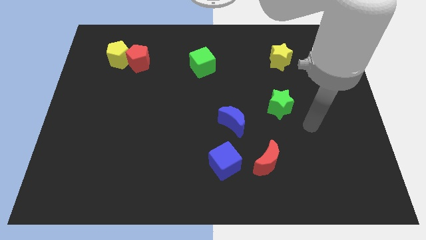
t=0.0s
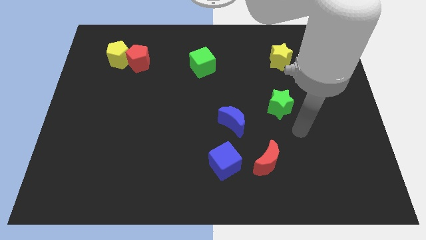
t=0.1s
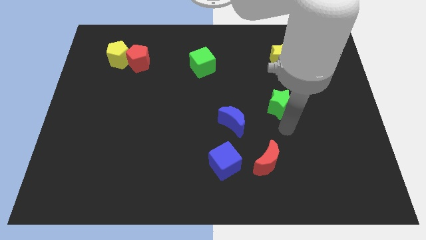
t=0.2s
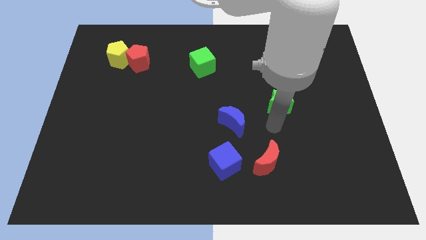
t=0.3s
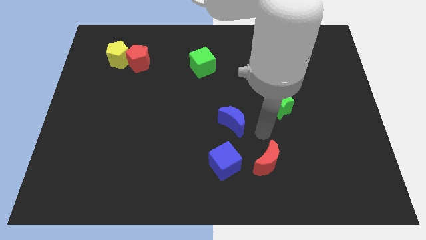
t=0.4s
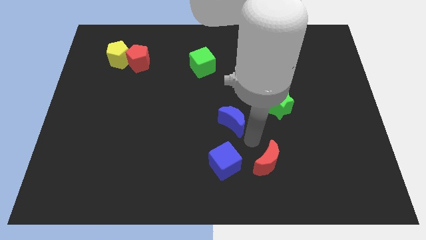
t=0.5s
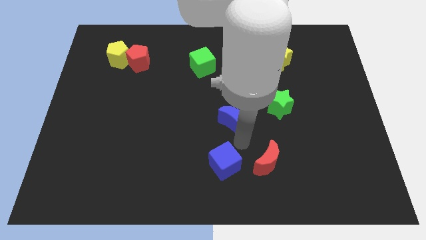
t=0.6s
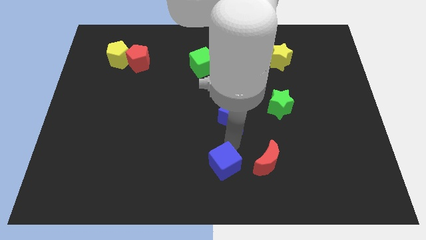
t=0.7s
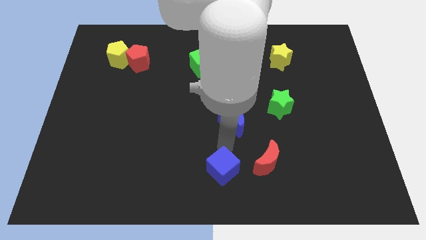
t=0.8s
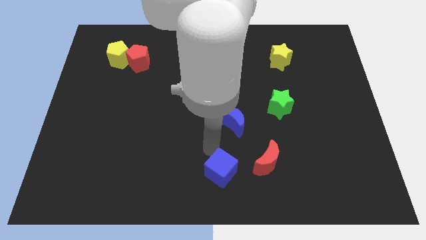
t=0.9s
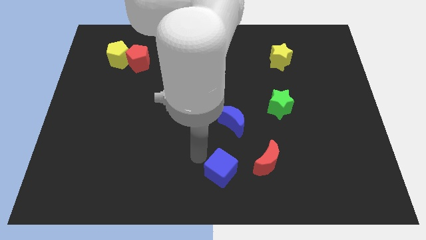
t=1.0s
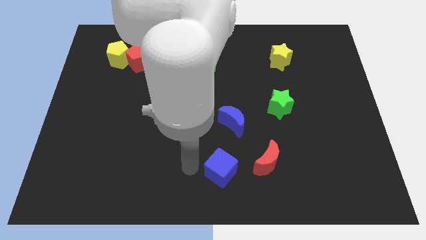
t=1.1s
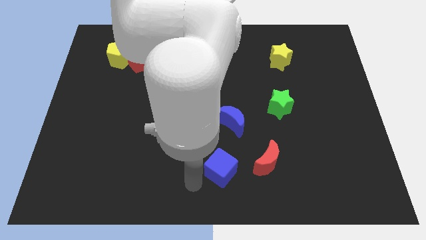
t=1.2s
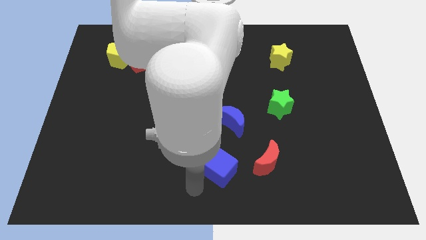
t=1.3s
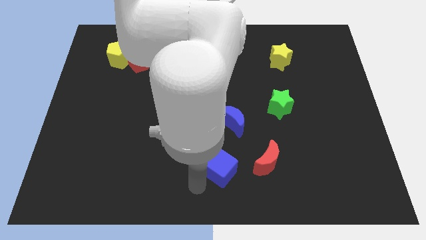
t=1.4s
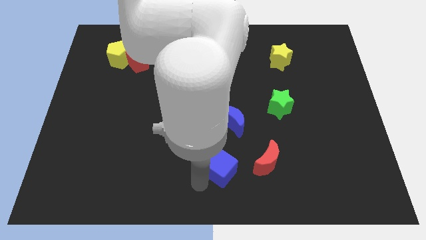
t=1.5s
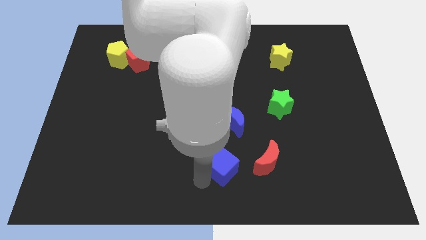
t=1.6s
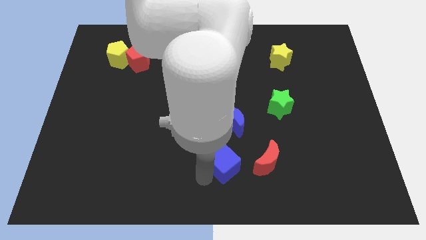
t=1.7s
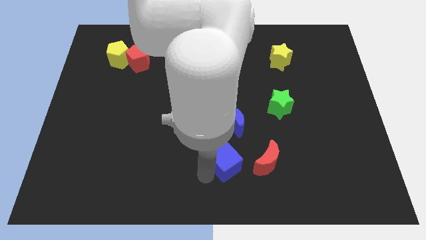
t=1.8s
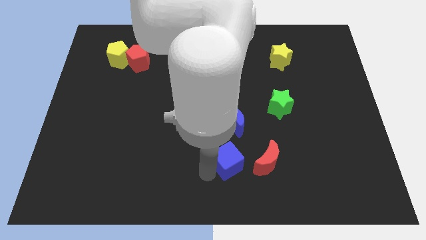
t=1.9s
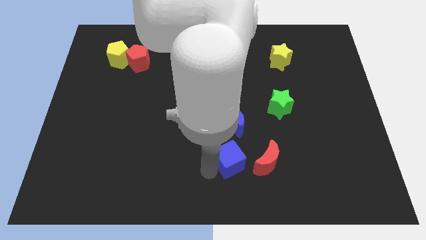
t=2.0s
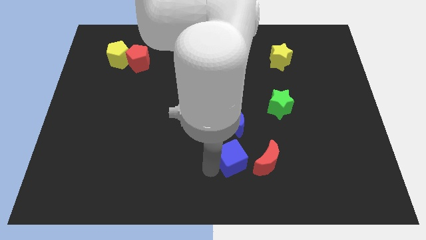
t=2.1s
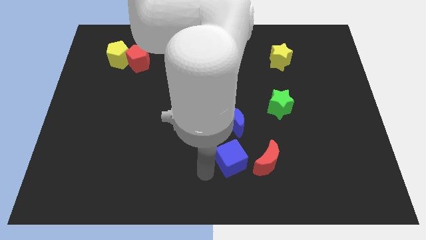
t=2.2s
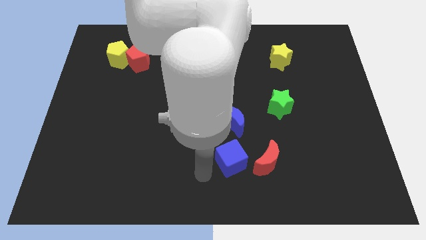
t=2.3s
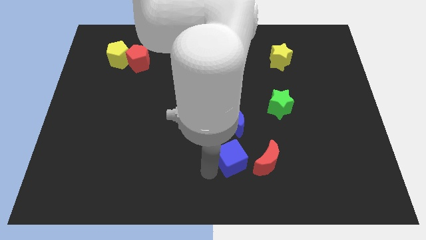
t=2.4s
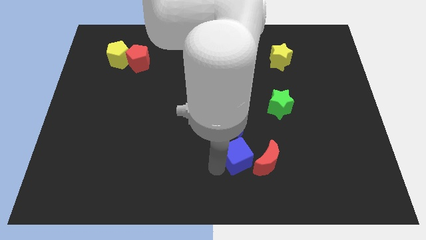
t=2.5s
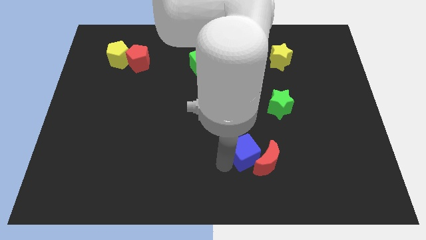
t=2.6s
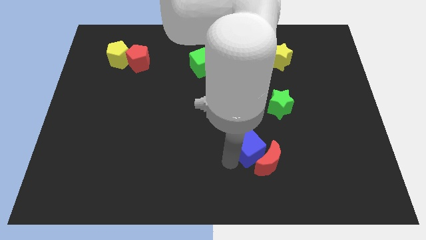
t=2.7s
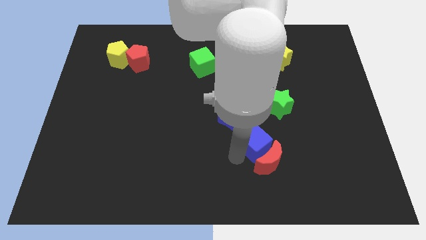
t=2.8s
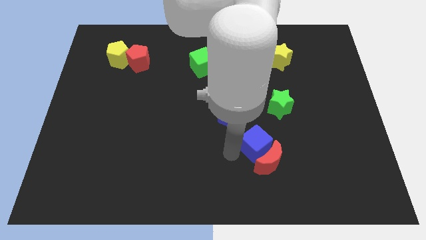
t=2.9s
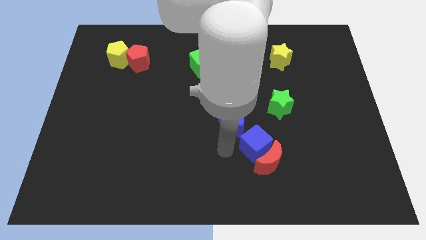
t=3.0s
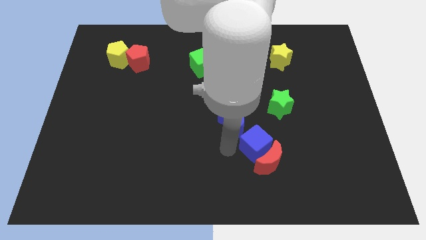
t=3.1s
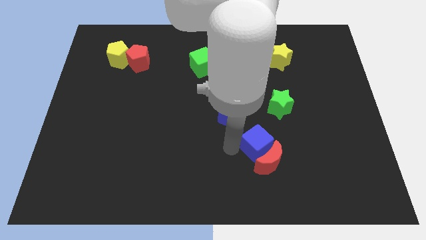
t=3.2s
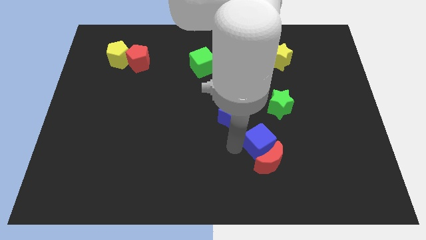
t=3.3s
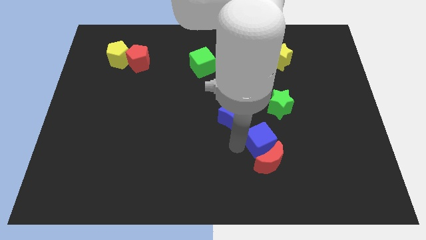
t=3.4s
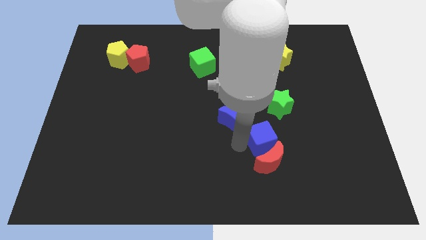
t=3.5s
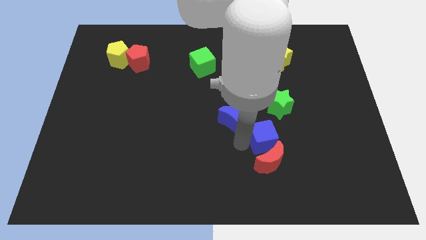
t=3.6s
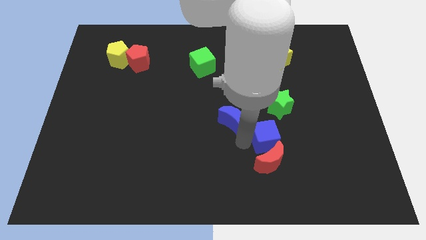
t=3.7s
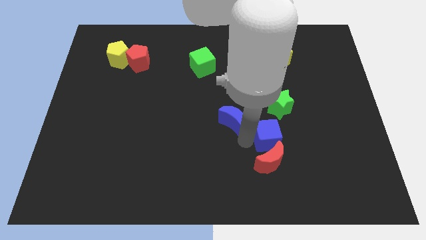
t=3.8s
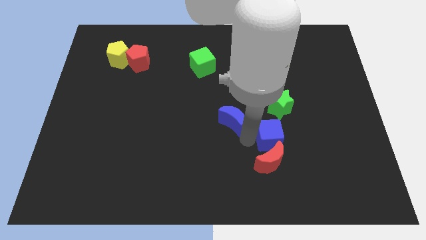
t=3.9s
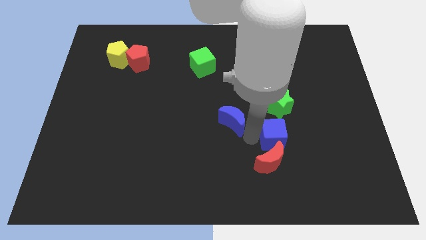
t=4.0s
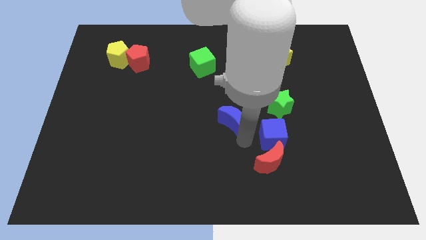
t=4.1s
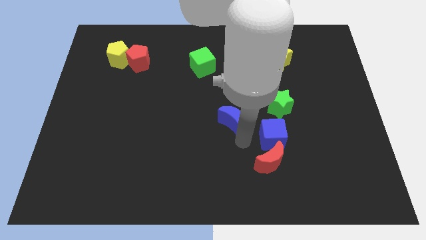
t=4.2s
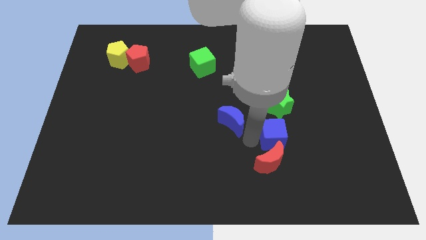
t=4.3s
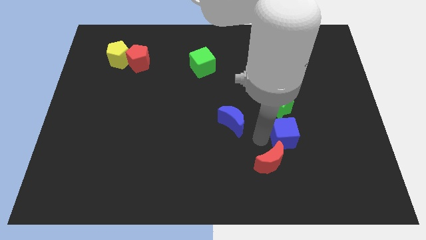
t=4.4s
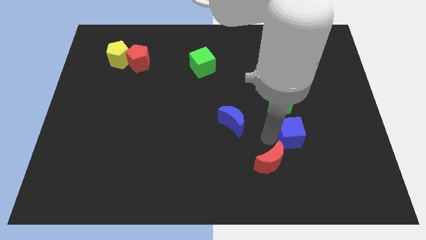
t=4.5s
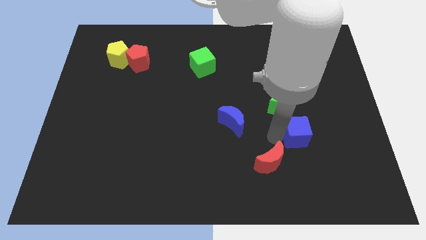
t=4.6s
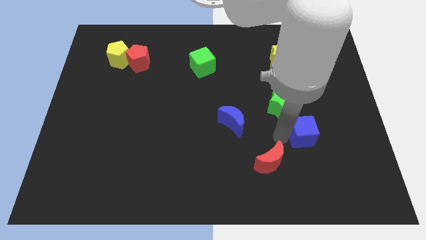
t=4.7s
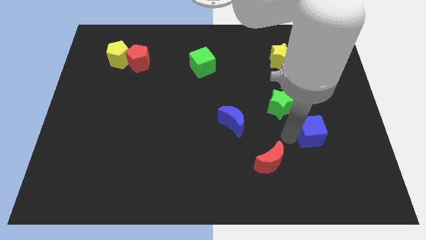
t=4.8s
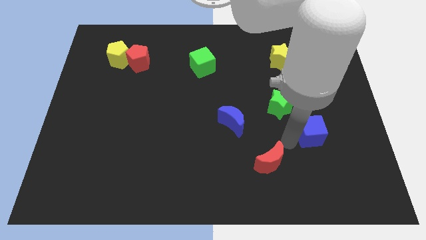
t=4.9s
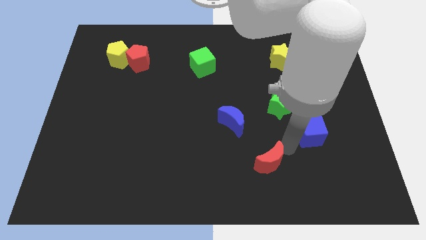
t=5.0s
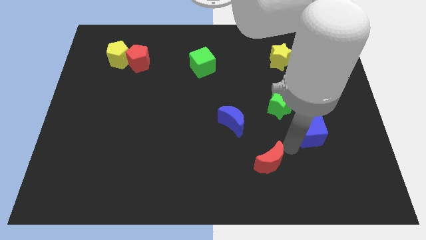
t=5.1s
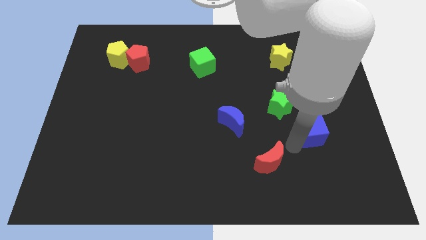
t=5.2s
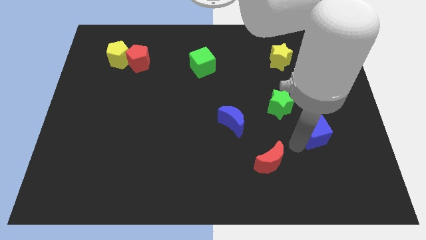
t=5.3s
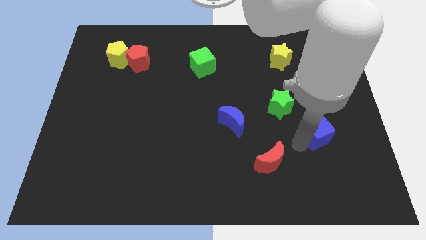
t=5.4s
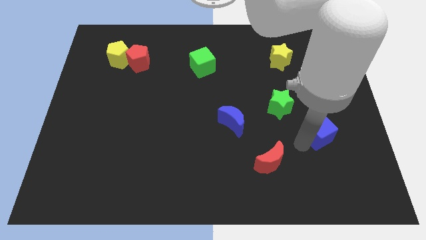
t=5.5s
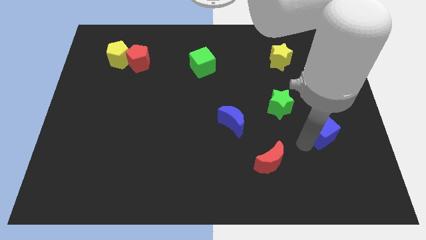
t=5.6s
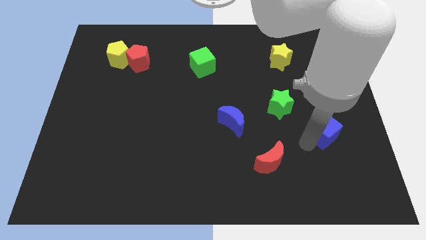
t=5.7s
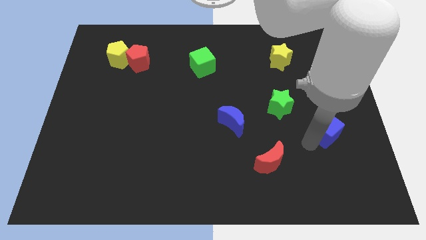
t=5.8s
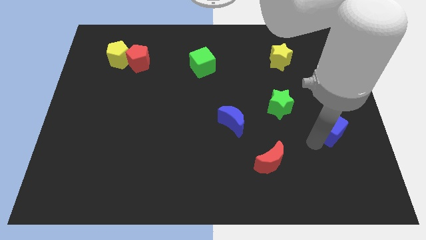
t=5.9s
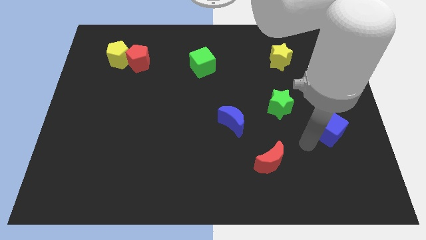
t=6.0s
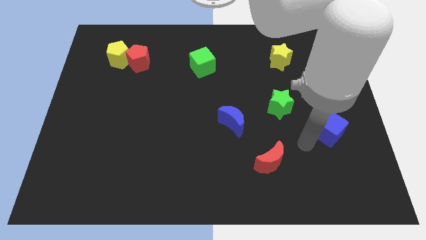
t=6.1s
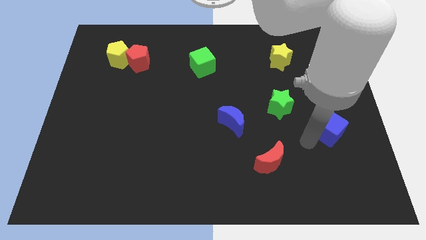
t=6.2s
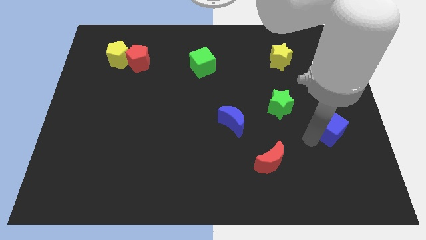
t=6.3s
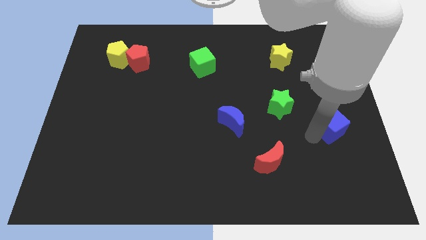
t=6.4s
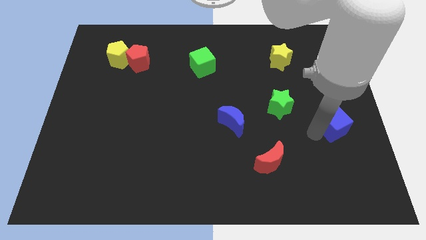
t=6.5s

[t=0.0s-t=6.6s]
push the blue cube to the right side of the board

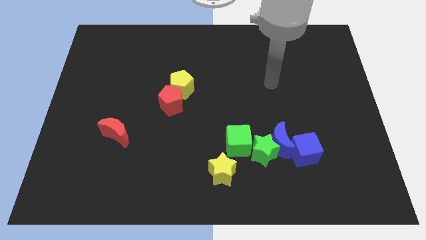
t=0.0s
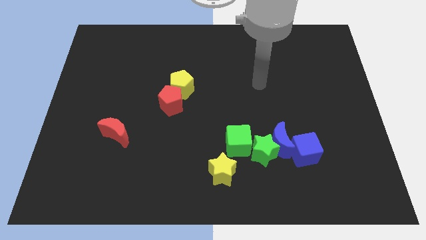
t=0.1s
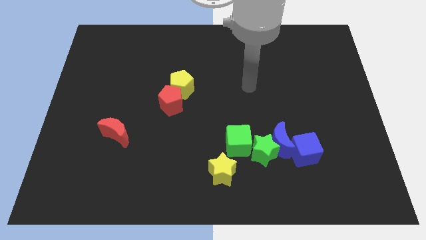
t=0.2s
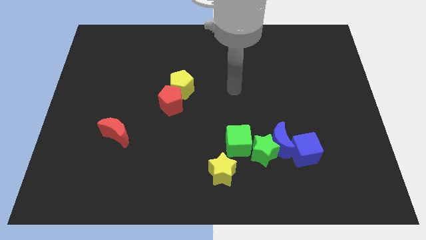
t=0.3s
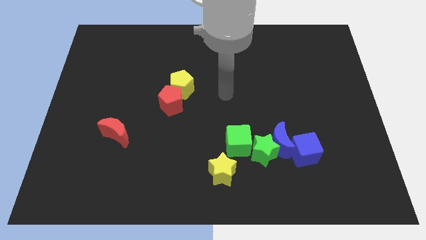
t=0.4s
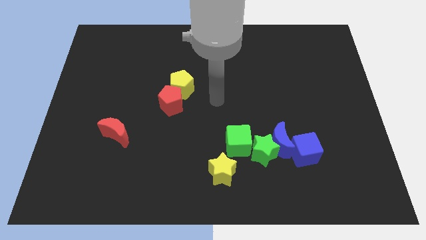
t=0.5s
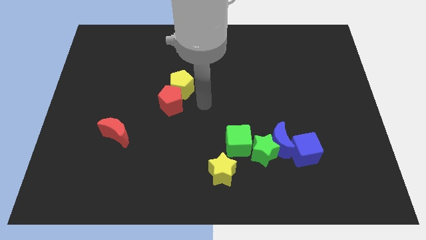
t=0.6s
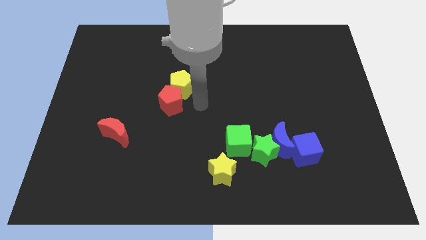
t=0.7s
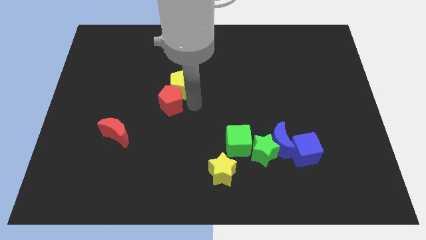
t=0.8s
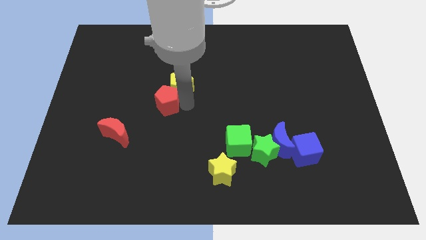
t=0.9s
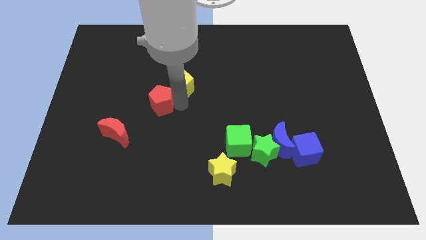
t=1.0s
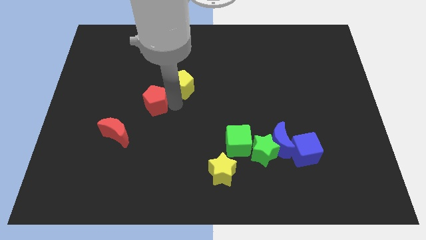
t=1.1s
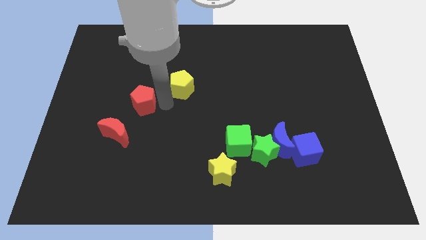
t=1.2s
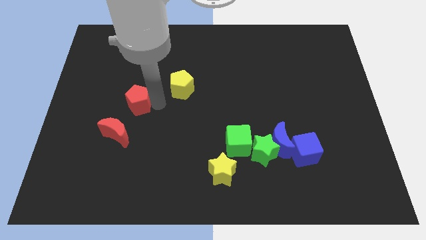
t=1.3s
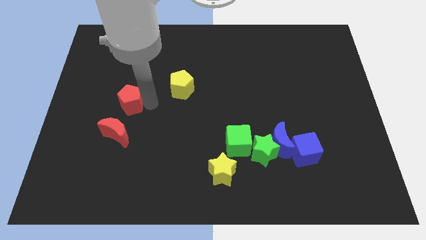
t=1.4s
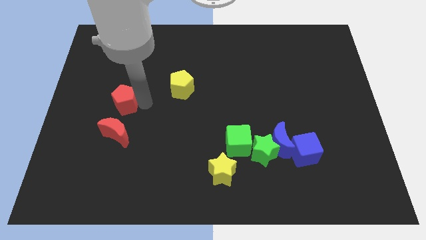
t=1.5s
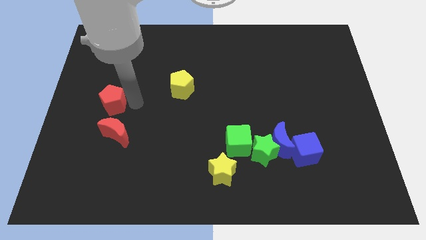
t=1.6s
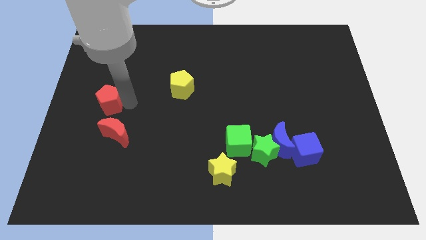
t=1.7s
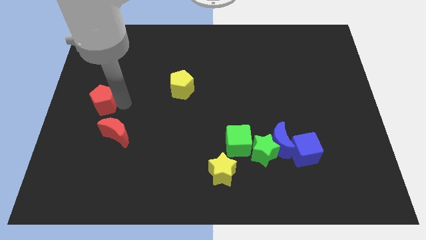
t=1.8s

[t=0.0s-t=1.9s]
move the red pentagon to the left side

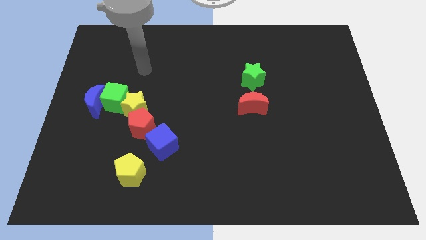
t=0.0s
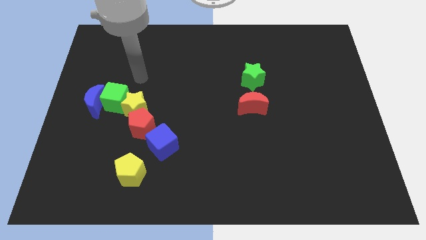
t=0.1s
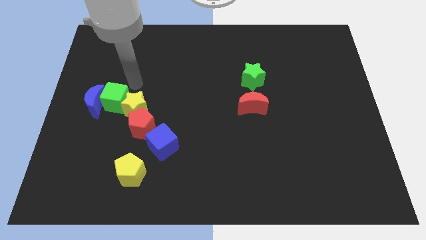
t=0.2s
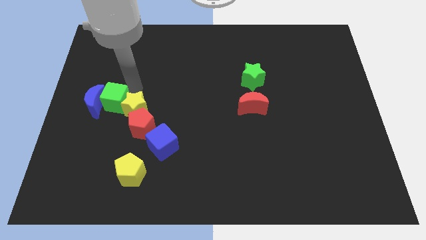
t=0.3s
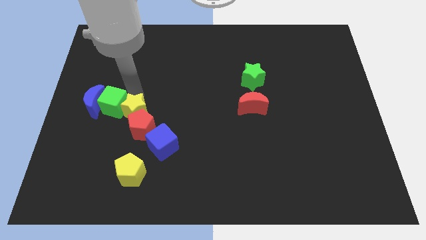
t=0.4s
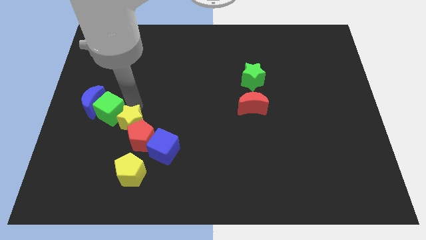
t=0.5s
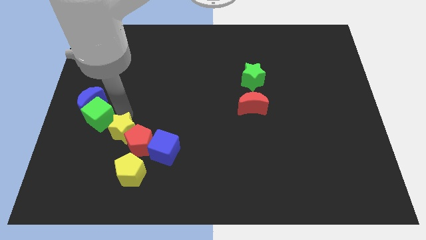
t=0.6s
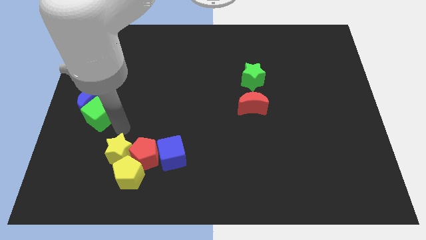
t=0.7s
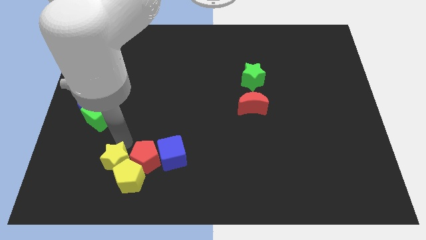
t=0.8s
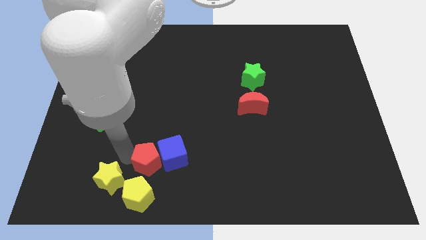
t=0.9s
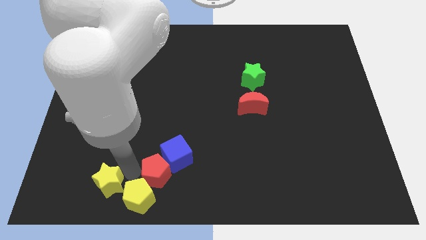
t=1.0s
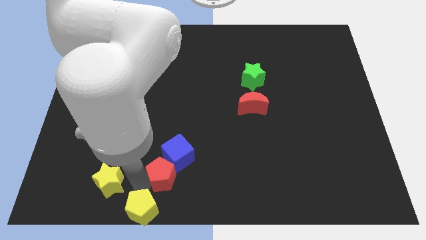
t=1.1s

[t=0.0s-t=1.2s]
move the red pentagon to the bottom
